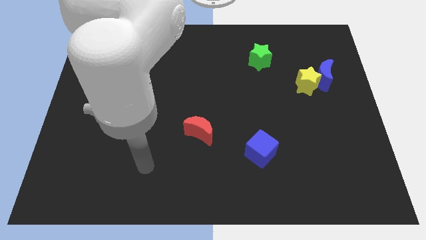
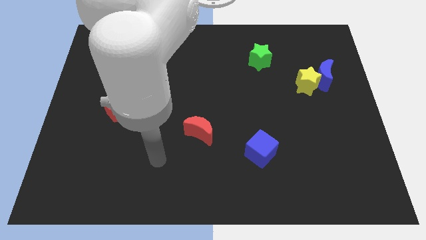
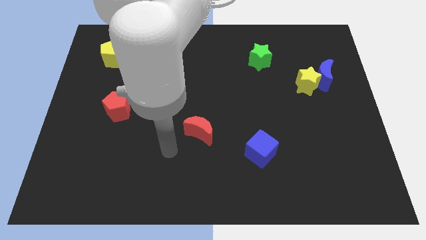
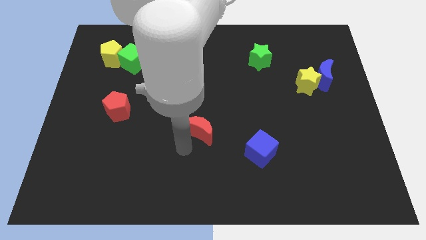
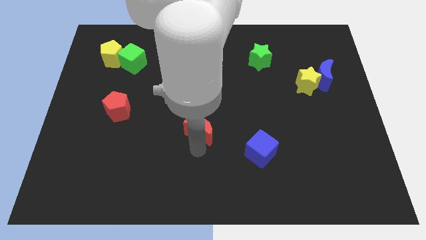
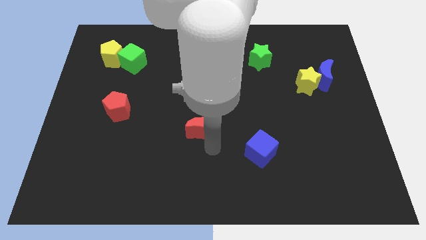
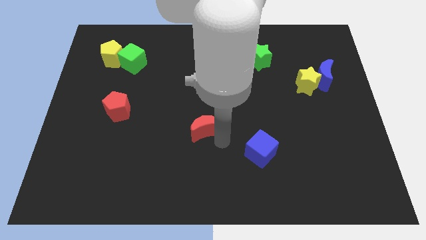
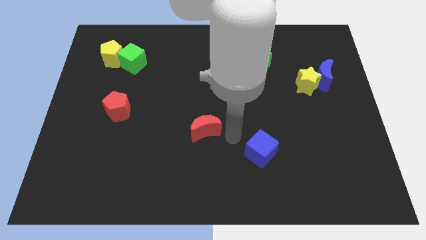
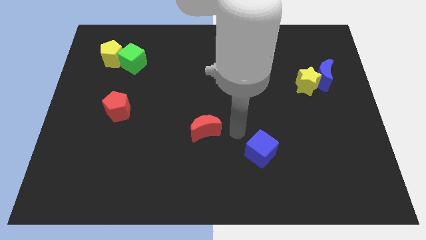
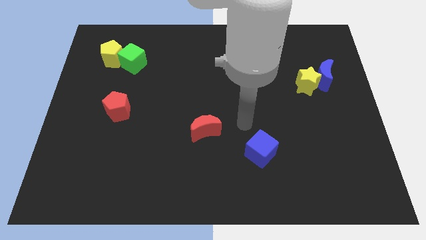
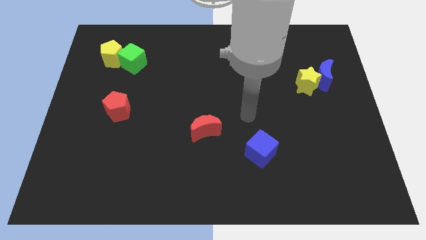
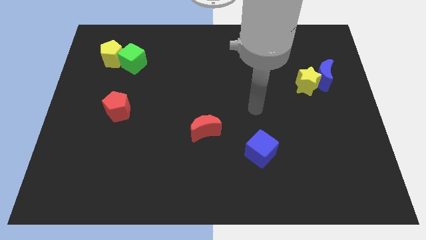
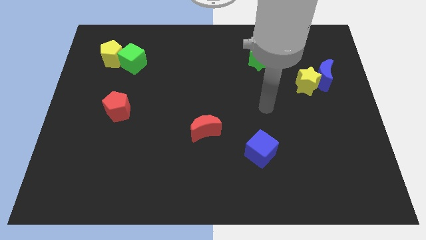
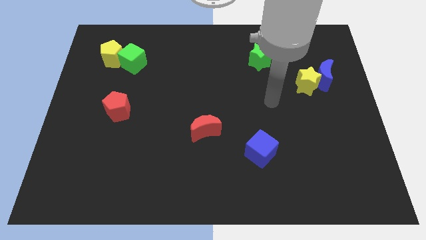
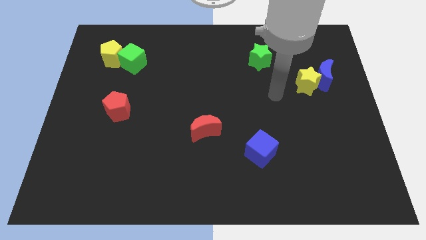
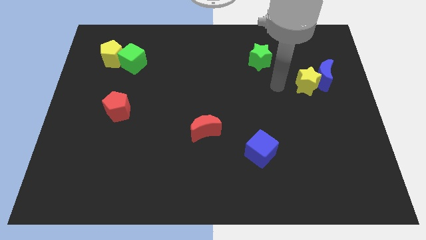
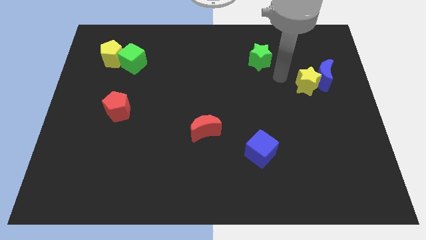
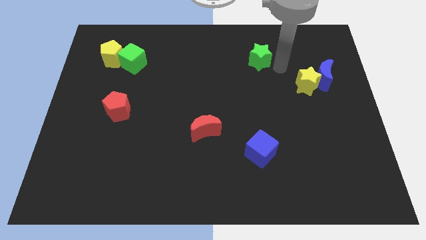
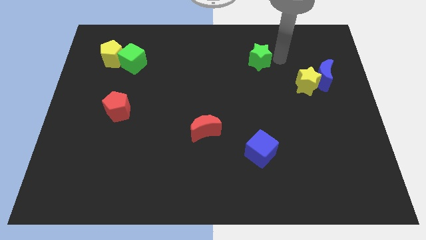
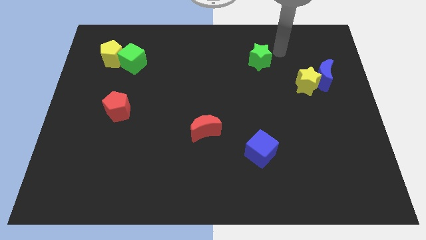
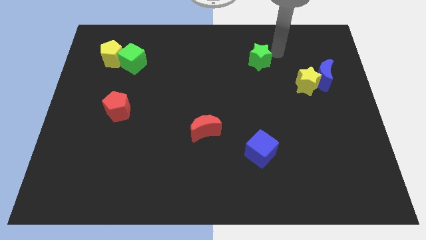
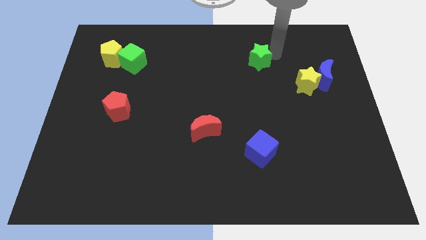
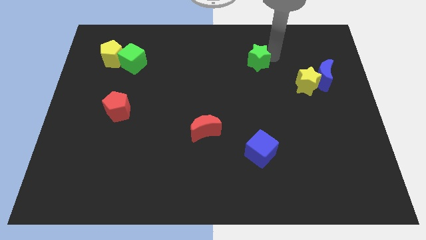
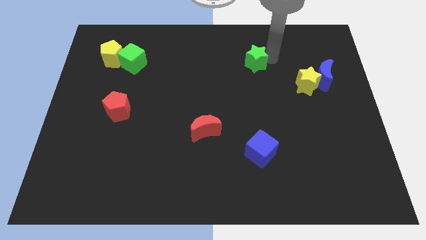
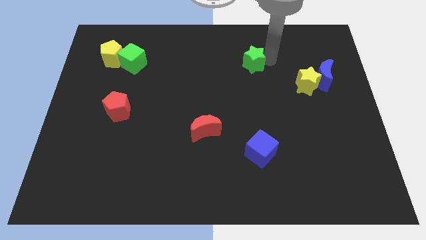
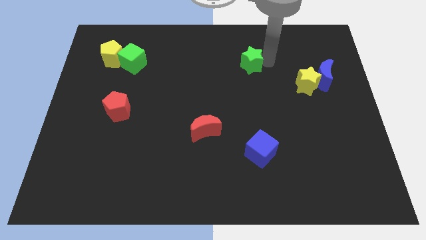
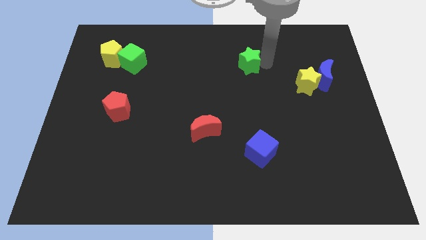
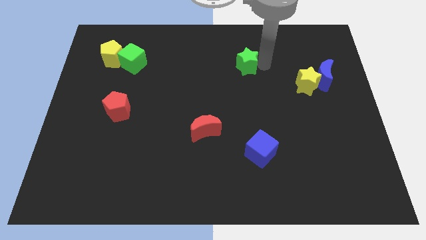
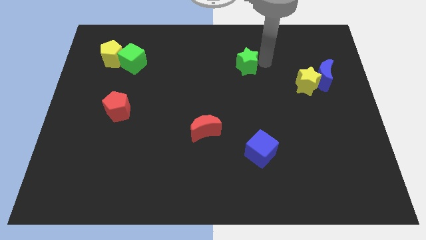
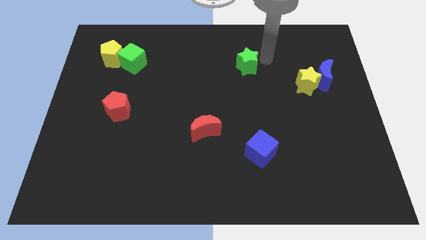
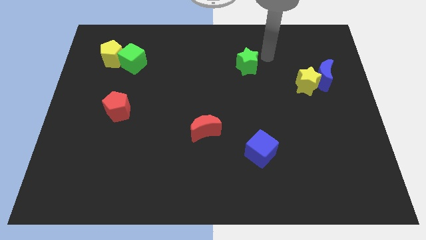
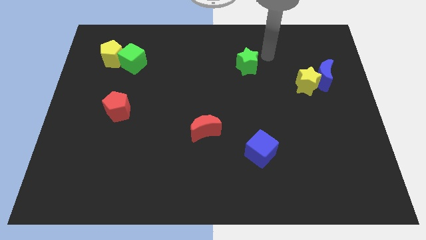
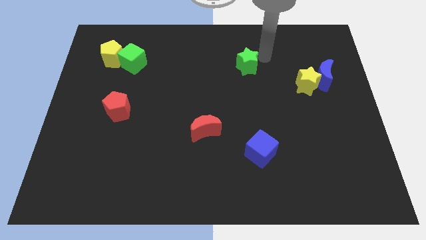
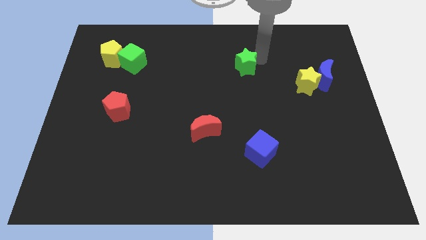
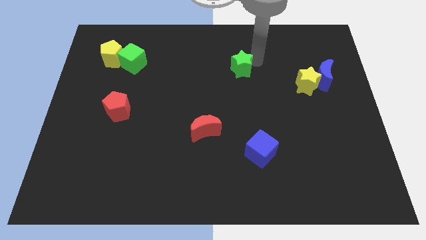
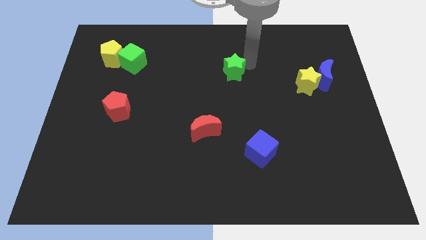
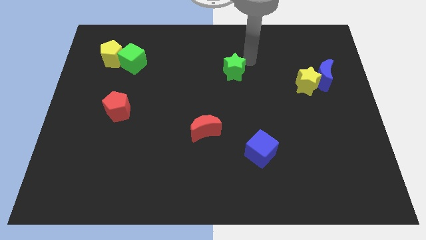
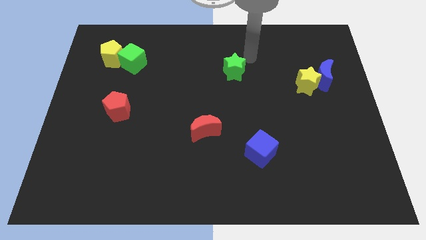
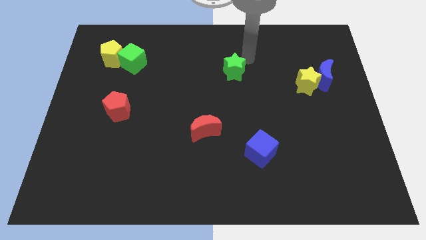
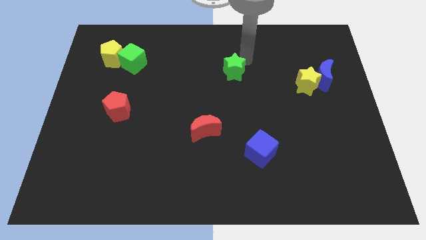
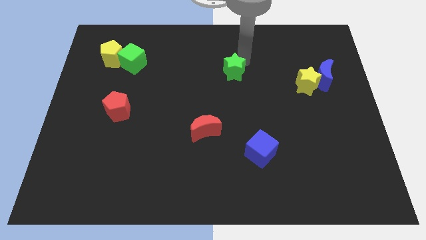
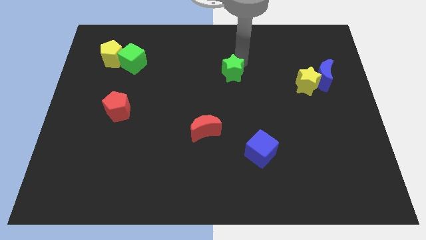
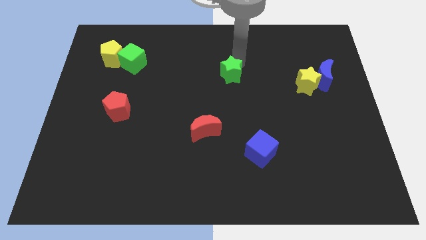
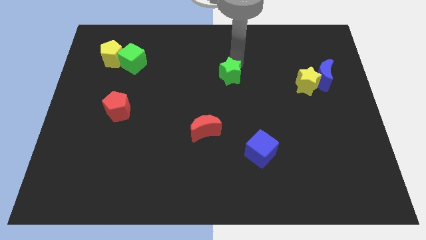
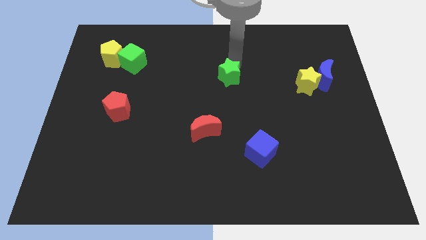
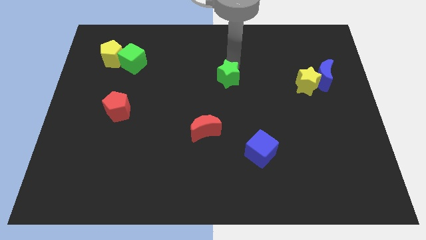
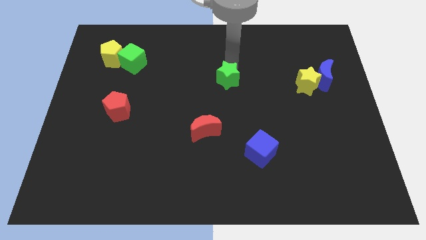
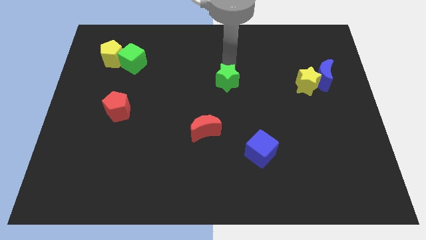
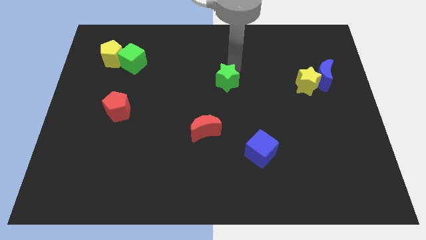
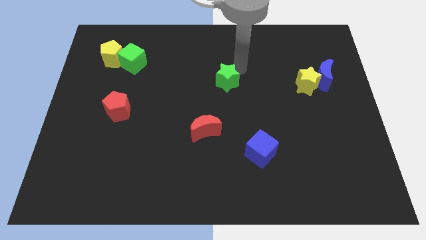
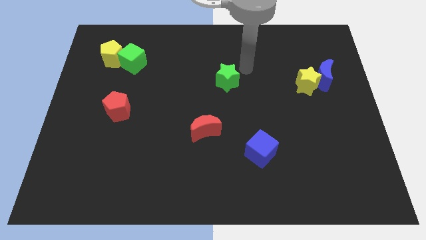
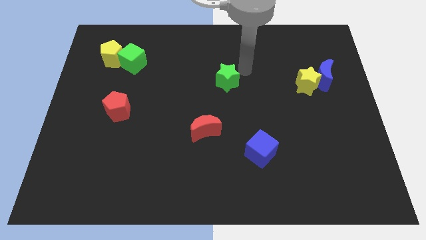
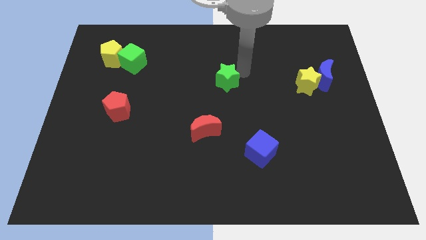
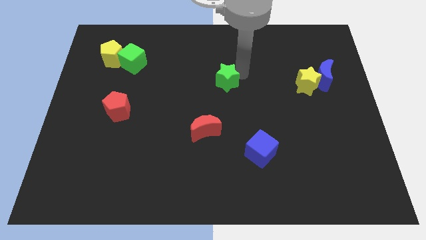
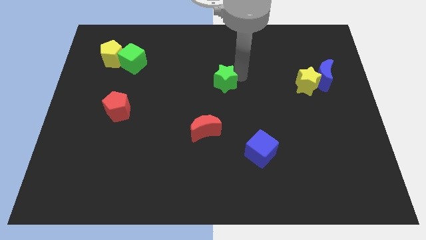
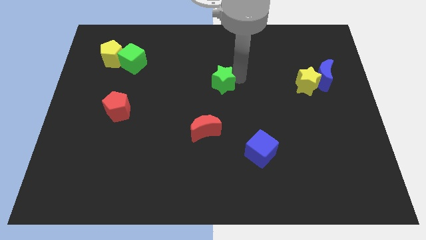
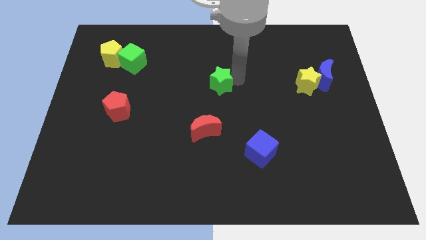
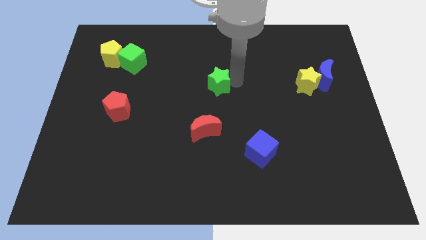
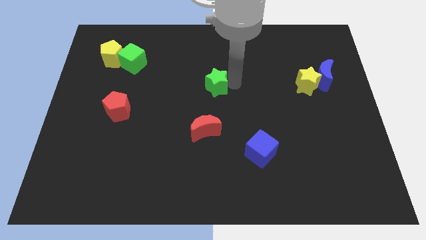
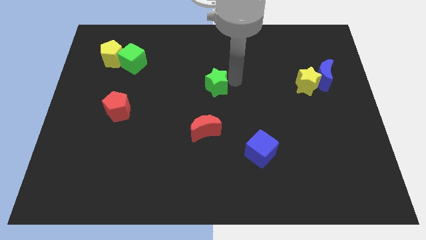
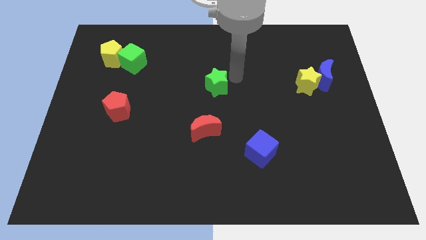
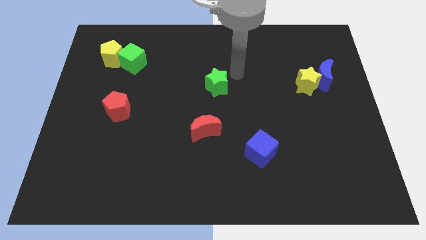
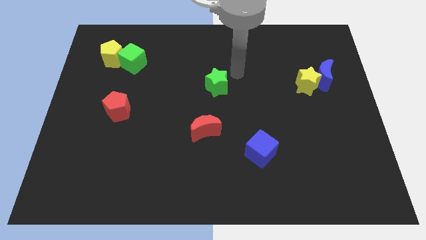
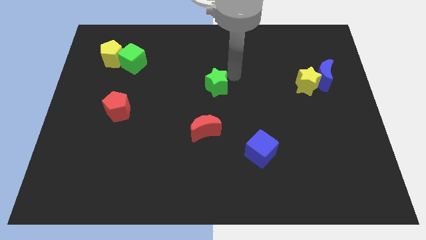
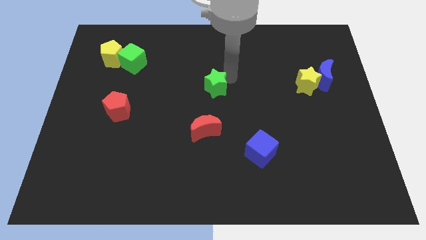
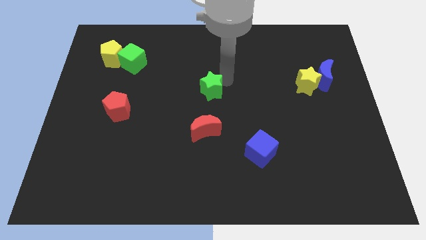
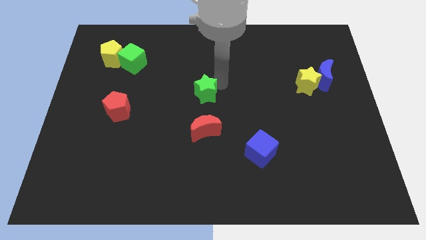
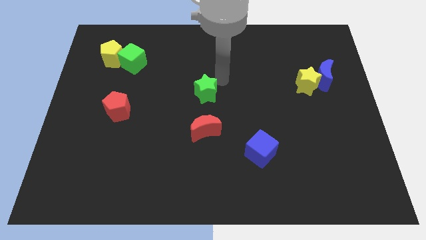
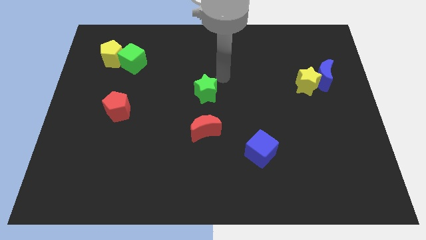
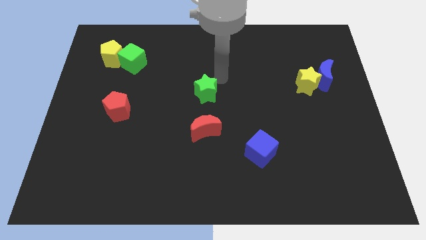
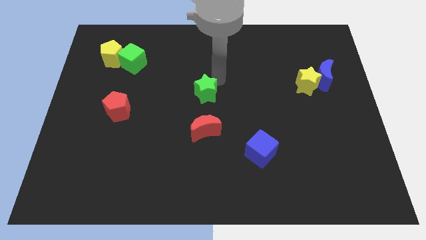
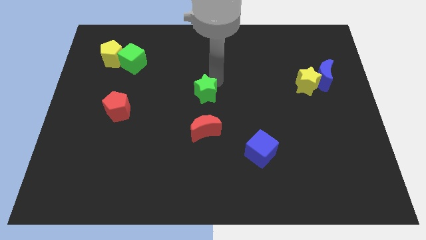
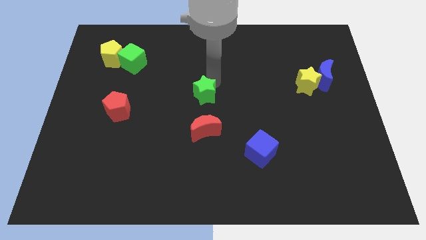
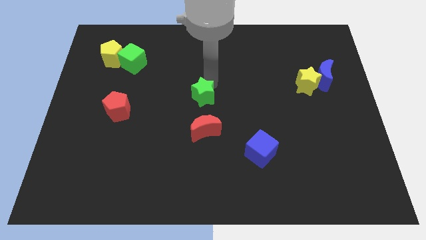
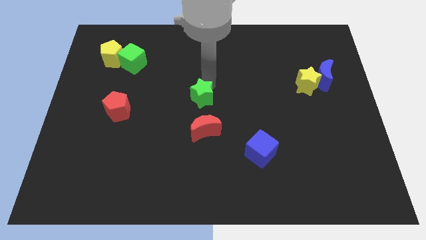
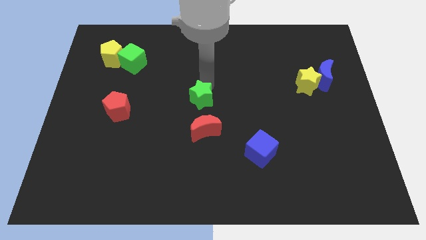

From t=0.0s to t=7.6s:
move the green star downwards and to the left diagonally

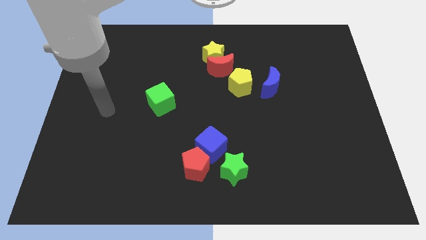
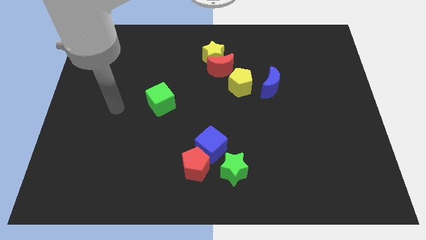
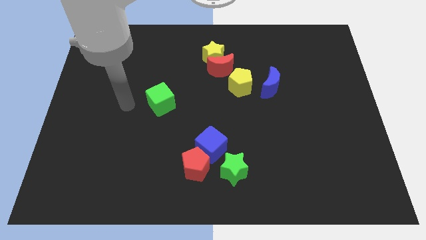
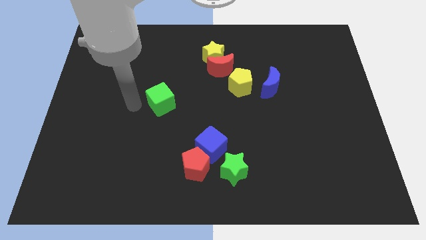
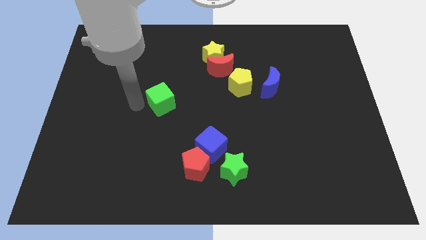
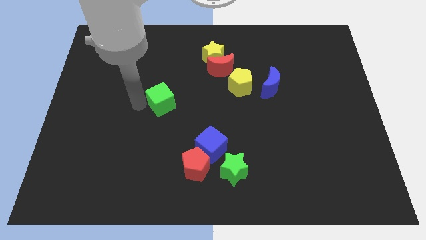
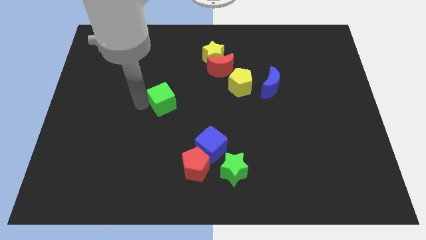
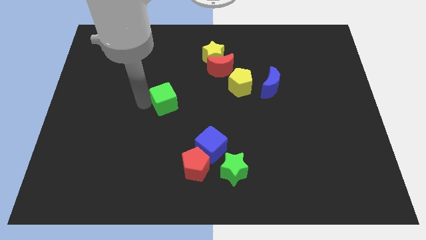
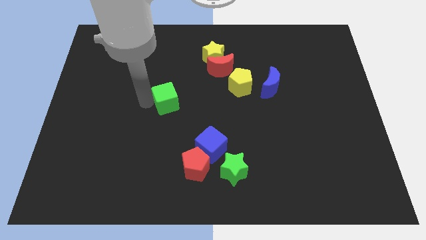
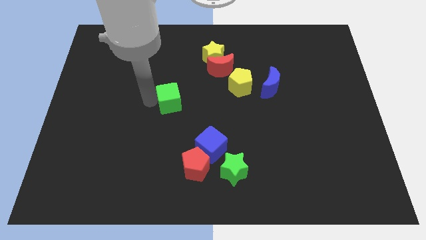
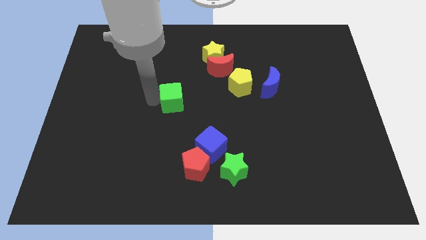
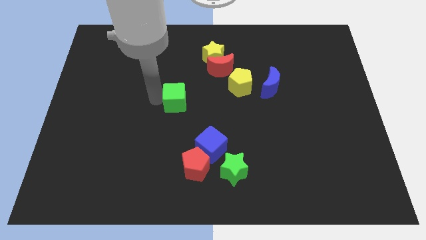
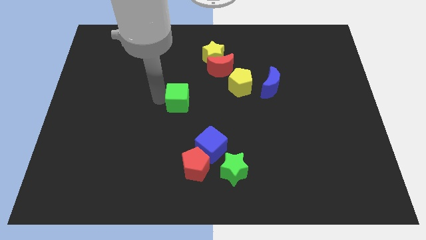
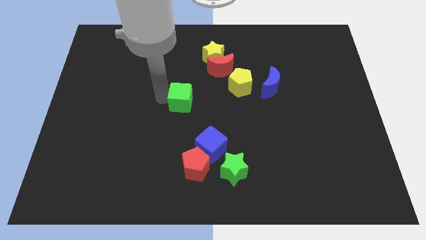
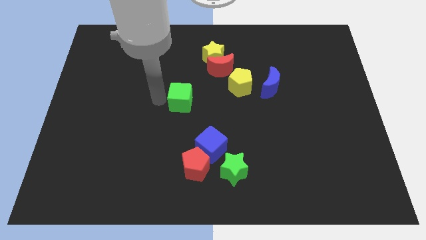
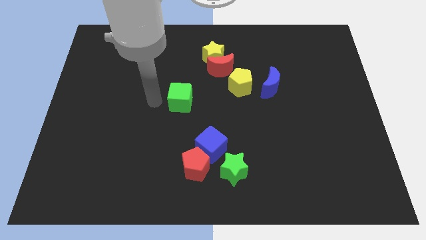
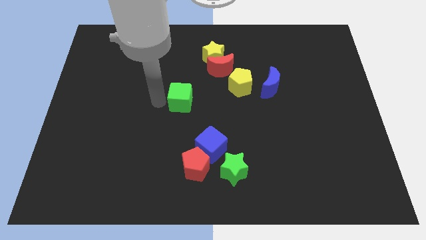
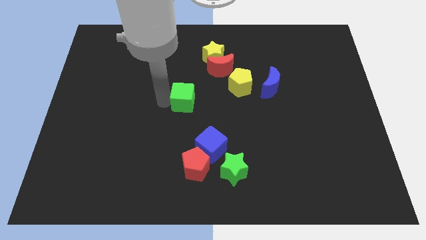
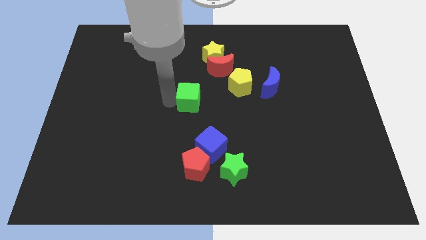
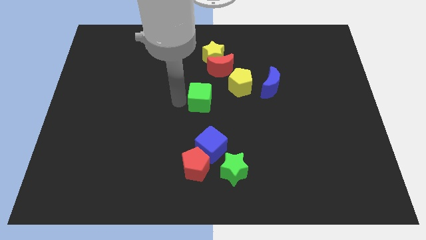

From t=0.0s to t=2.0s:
slide the green cube a little right
